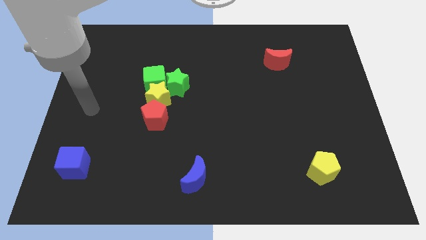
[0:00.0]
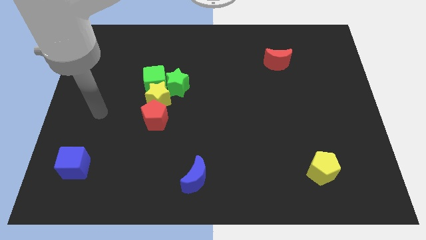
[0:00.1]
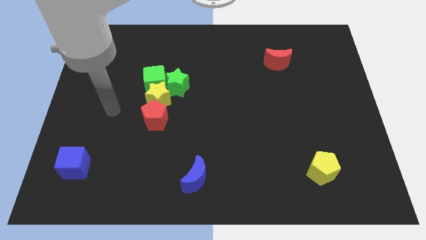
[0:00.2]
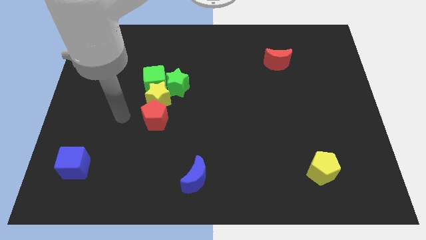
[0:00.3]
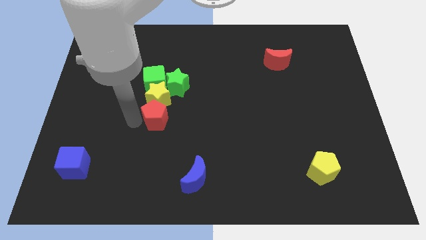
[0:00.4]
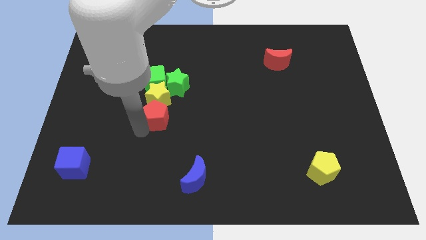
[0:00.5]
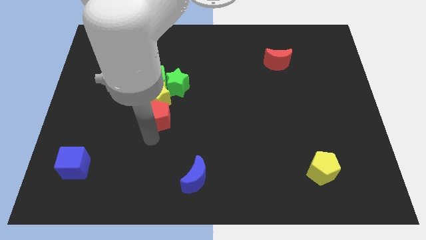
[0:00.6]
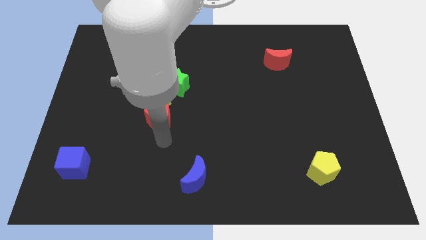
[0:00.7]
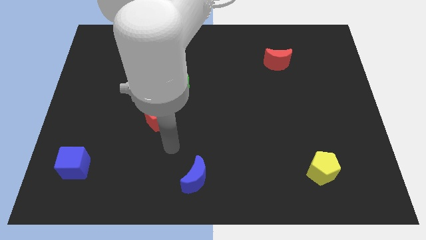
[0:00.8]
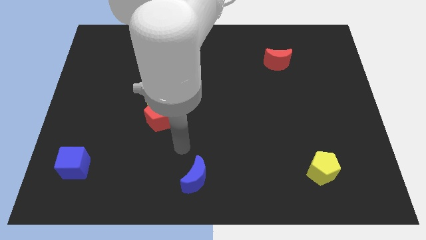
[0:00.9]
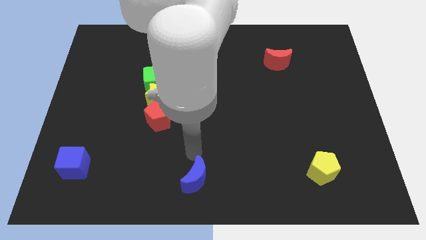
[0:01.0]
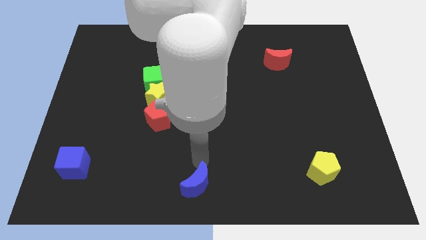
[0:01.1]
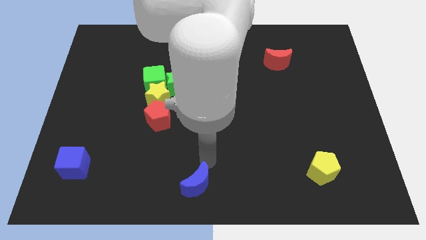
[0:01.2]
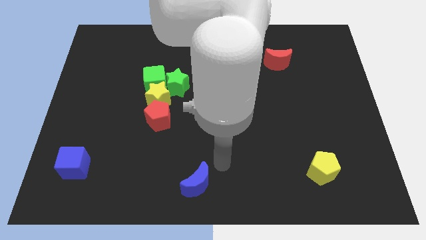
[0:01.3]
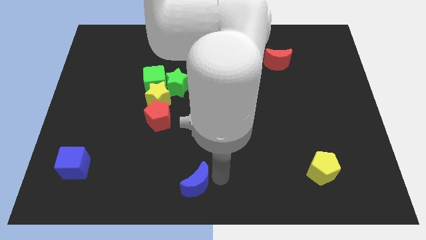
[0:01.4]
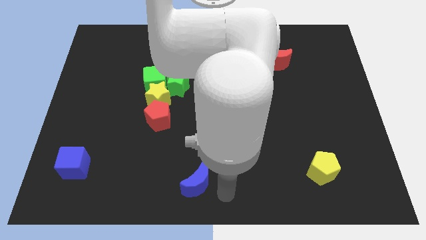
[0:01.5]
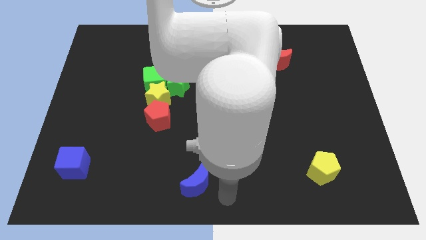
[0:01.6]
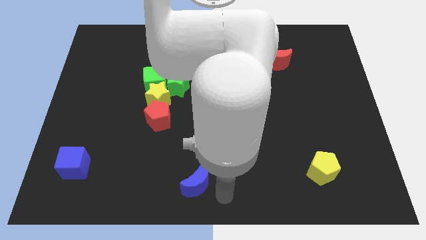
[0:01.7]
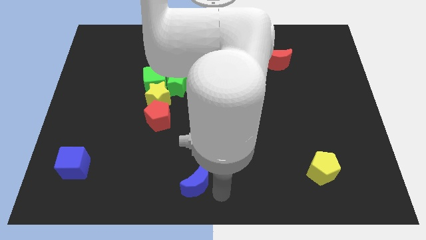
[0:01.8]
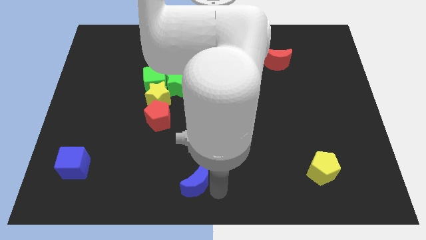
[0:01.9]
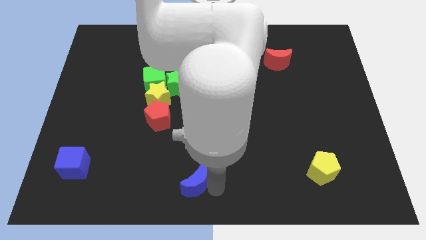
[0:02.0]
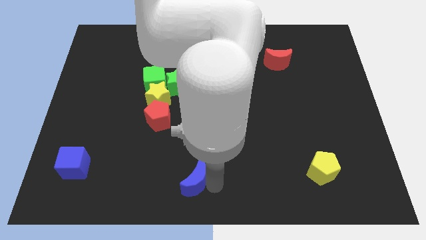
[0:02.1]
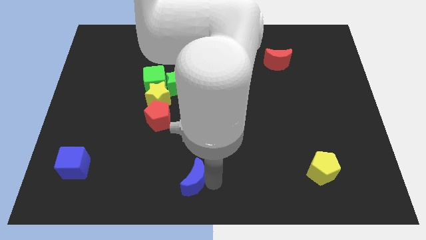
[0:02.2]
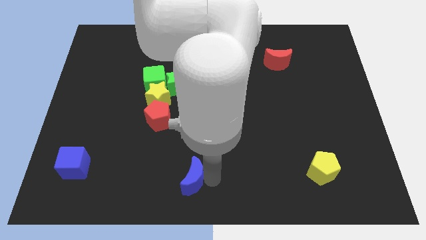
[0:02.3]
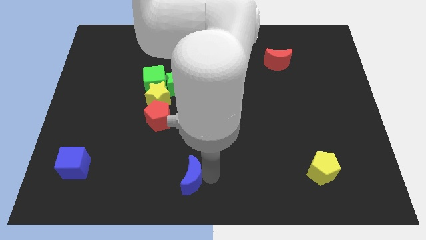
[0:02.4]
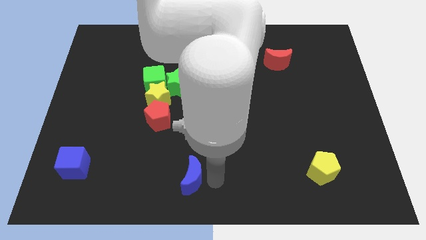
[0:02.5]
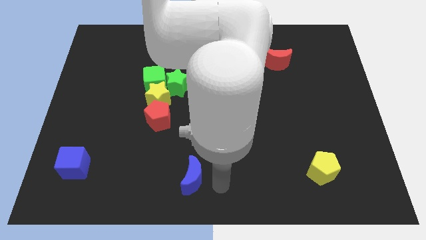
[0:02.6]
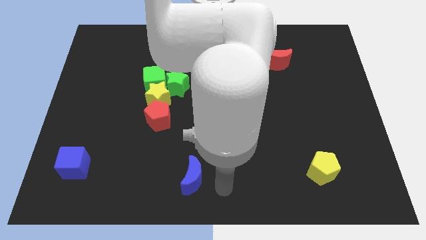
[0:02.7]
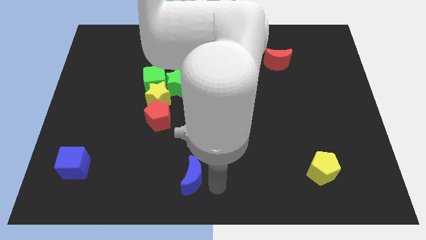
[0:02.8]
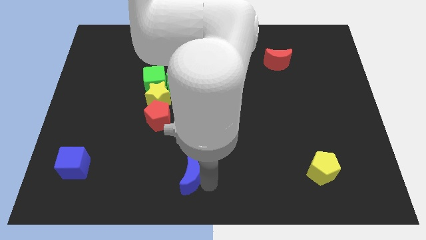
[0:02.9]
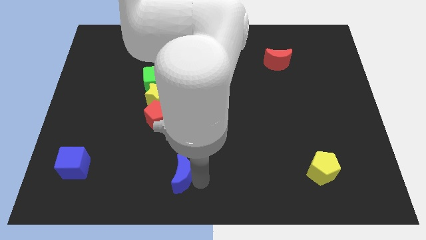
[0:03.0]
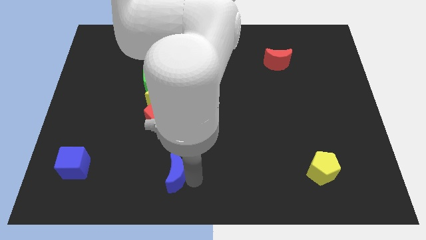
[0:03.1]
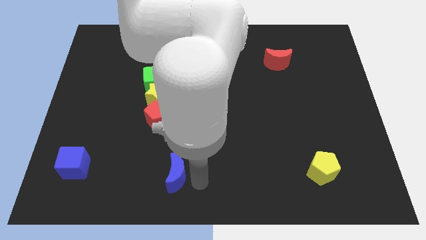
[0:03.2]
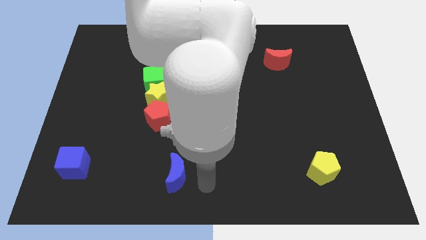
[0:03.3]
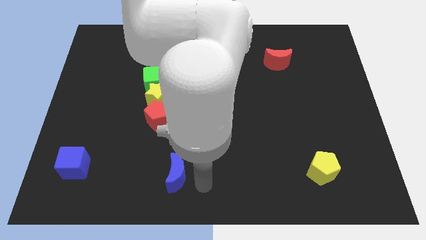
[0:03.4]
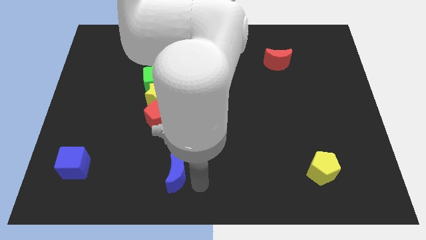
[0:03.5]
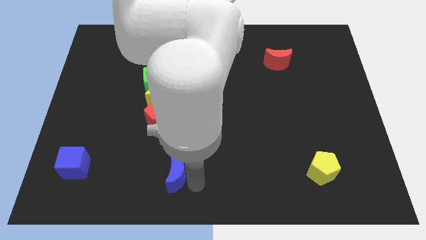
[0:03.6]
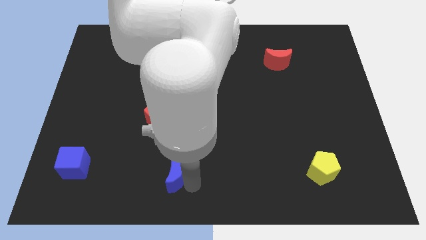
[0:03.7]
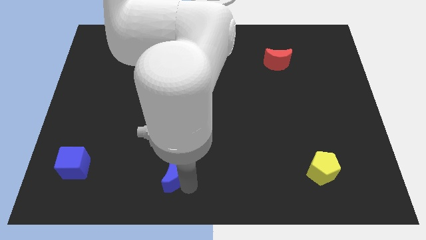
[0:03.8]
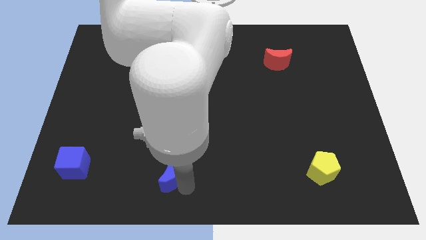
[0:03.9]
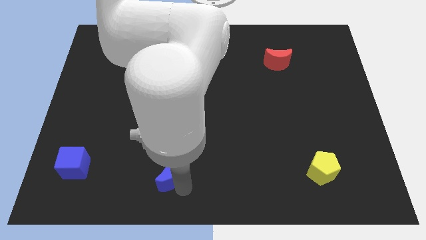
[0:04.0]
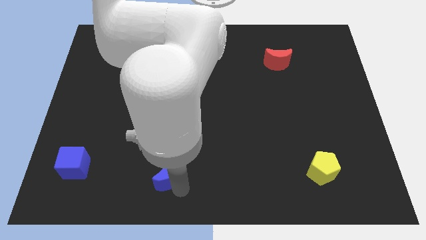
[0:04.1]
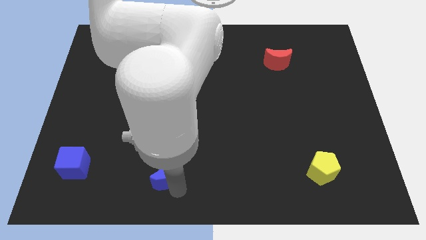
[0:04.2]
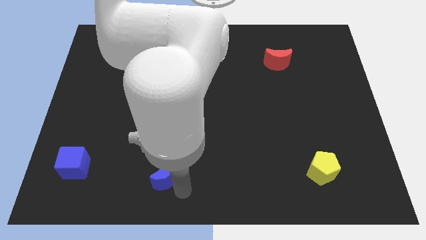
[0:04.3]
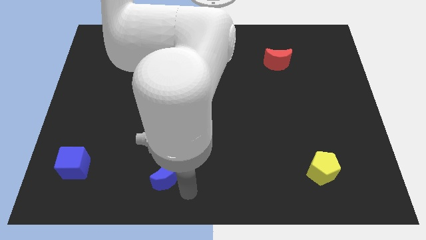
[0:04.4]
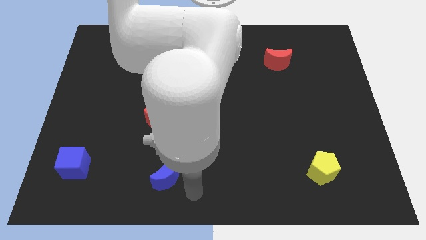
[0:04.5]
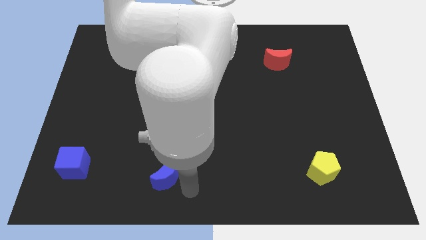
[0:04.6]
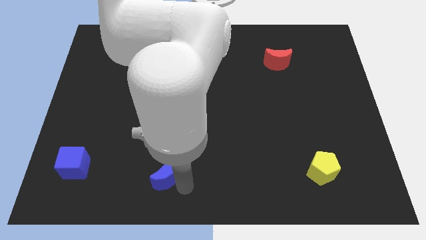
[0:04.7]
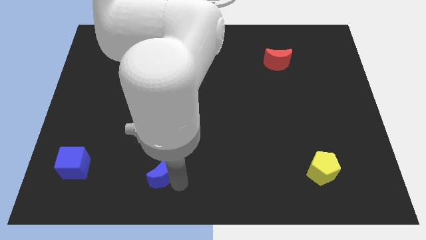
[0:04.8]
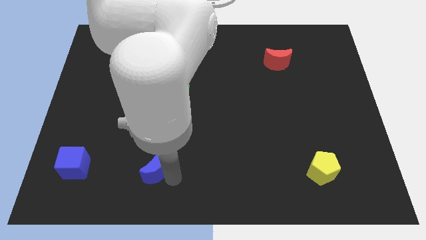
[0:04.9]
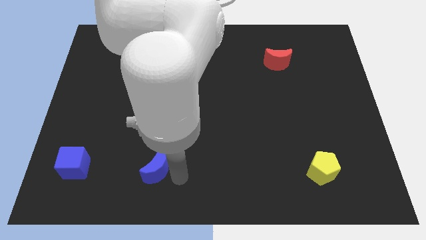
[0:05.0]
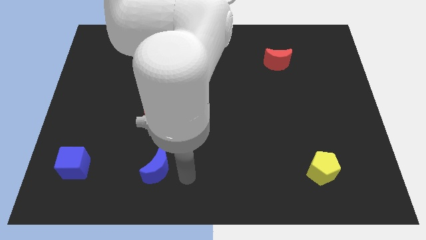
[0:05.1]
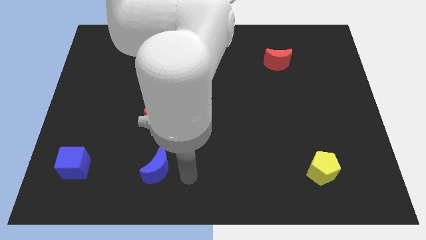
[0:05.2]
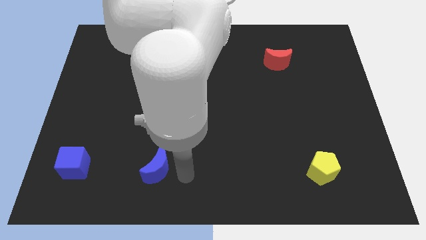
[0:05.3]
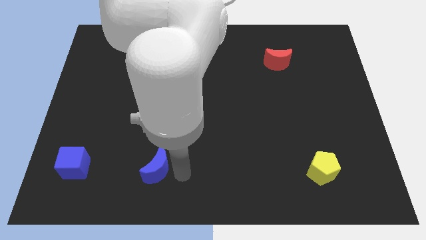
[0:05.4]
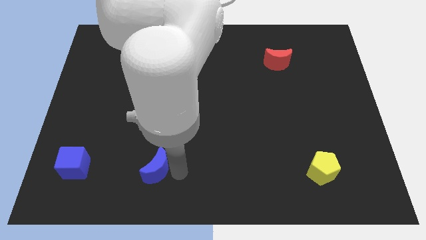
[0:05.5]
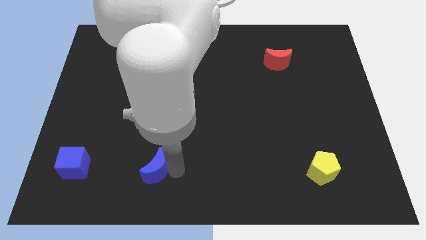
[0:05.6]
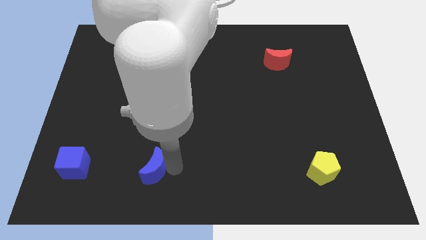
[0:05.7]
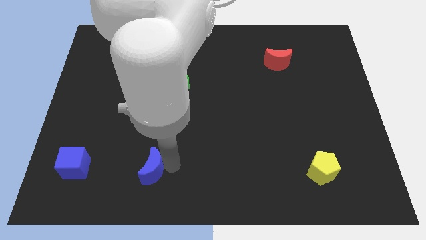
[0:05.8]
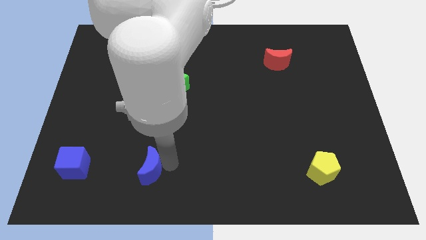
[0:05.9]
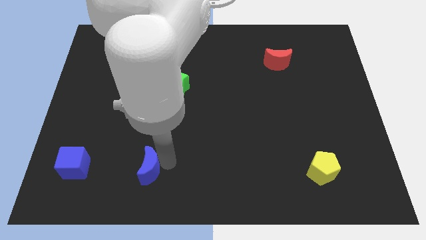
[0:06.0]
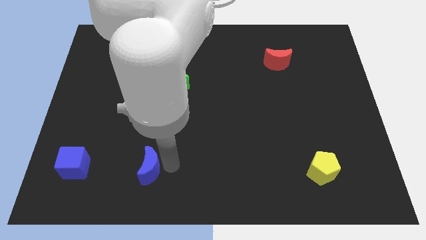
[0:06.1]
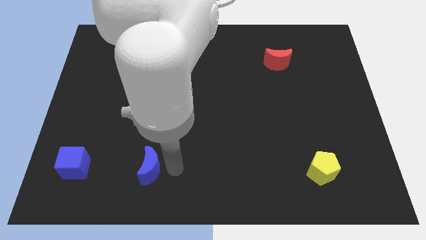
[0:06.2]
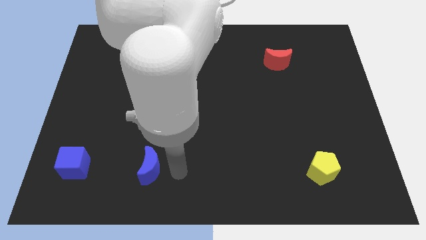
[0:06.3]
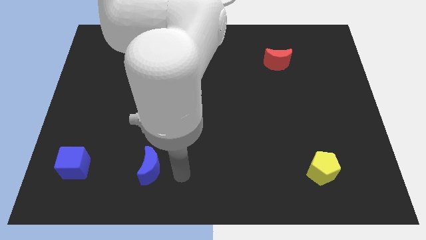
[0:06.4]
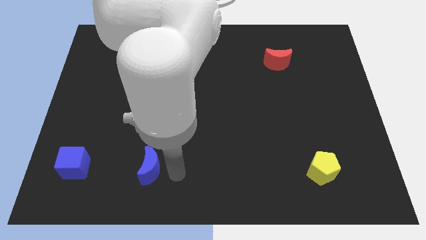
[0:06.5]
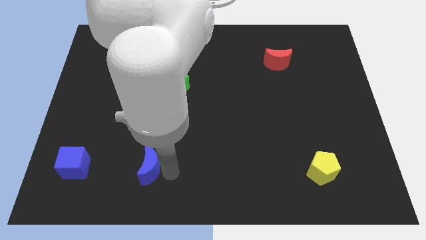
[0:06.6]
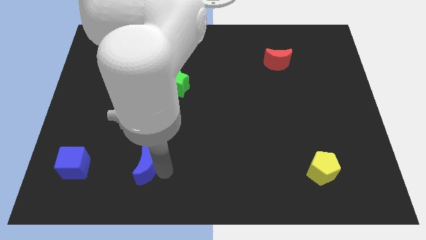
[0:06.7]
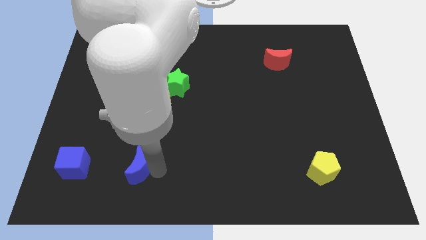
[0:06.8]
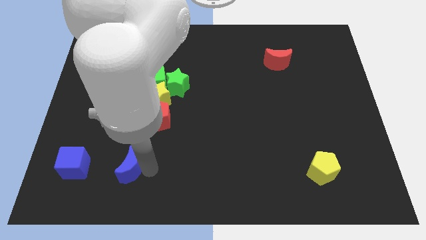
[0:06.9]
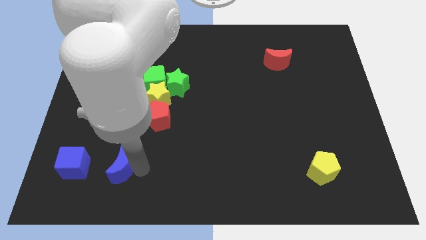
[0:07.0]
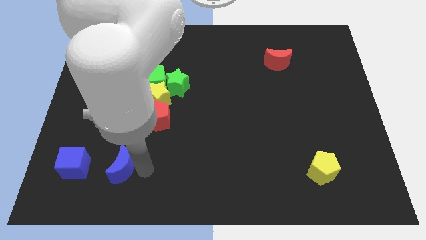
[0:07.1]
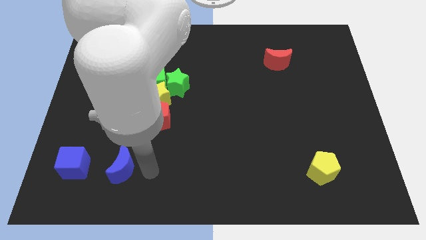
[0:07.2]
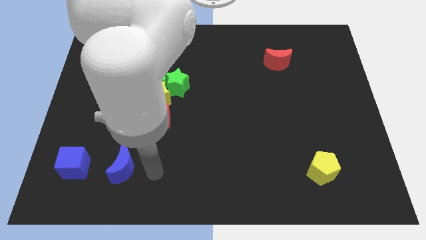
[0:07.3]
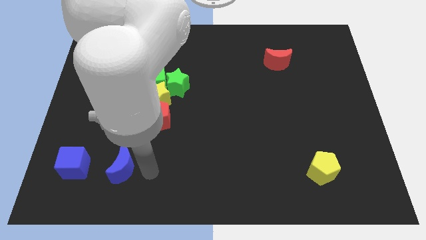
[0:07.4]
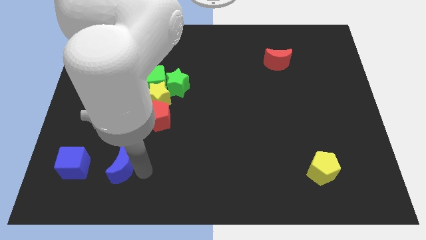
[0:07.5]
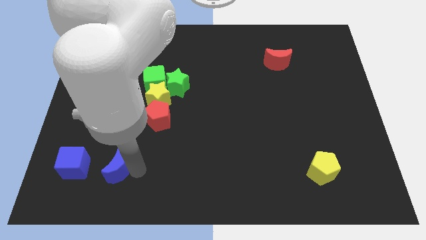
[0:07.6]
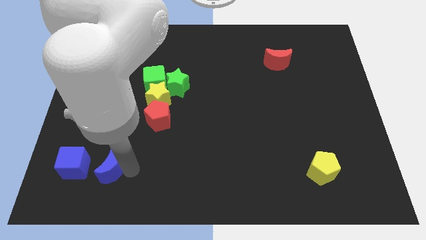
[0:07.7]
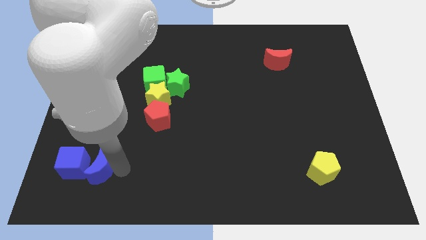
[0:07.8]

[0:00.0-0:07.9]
move the blue moon close to the blue cube
